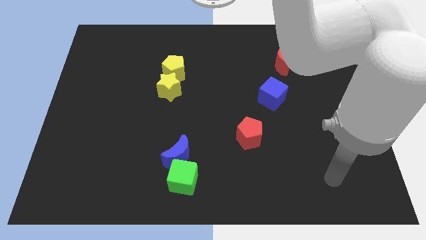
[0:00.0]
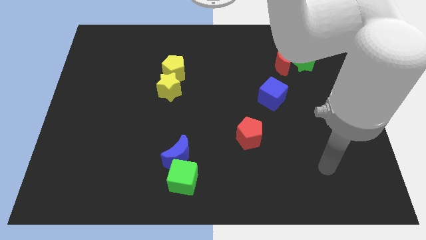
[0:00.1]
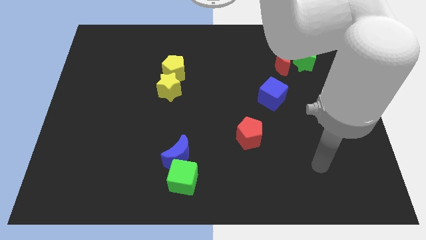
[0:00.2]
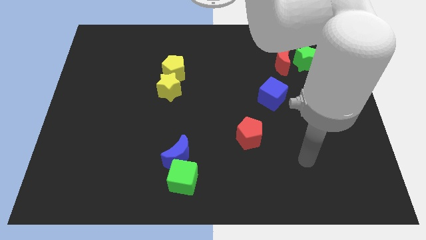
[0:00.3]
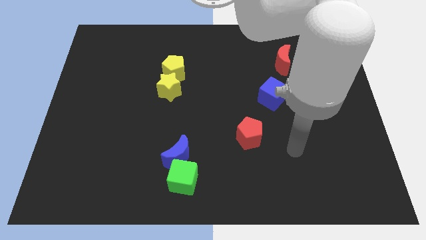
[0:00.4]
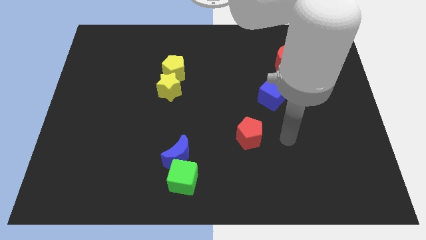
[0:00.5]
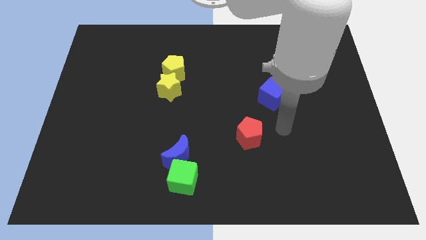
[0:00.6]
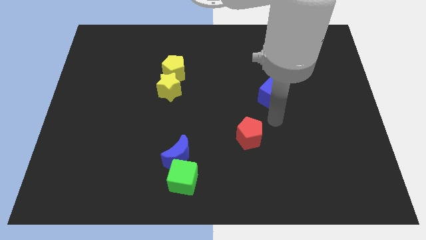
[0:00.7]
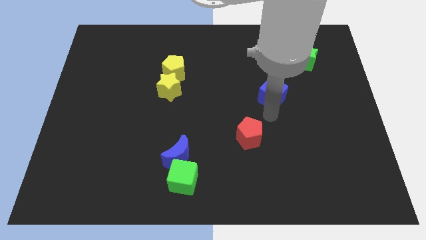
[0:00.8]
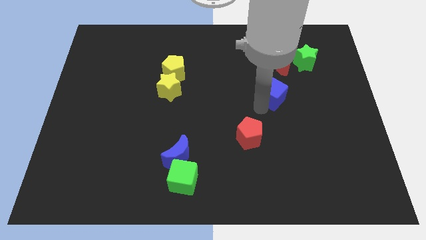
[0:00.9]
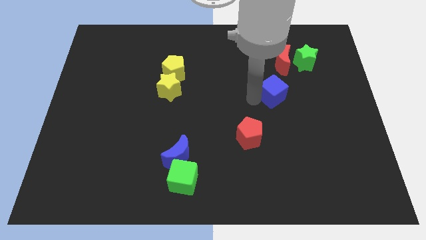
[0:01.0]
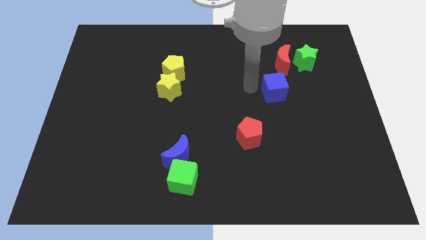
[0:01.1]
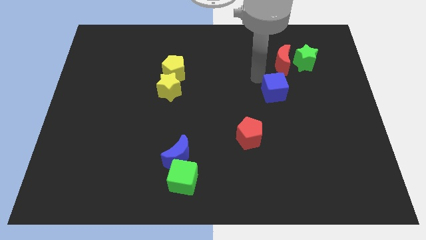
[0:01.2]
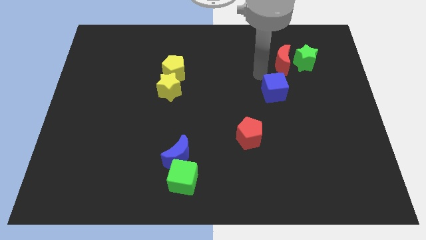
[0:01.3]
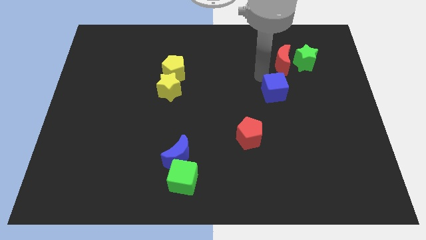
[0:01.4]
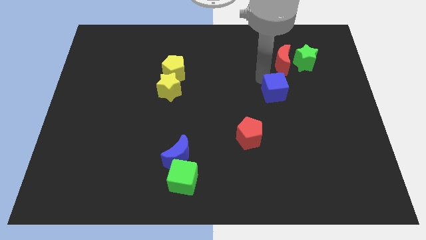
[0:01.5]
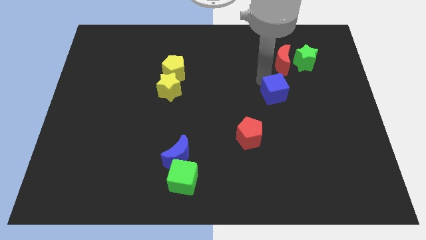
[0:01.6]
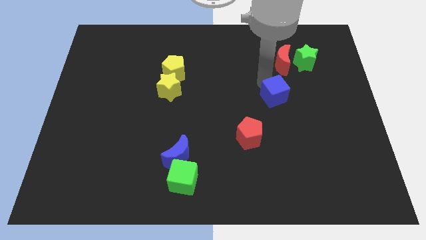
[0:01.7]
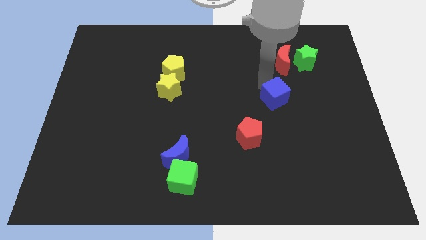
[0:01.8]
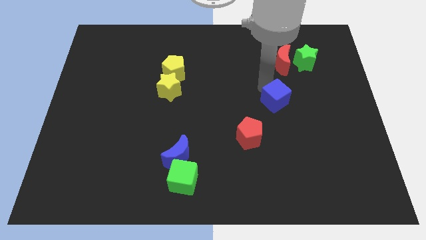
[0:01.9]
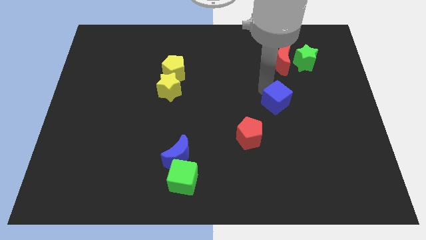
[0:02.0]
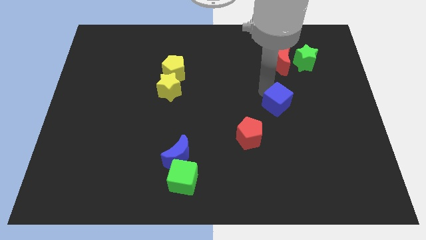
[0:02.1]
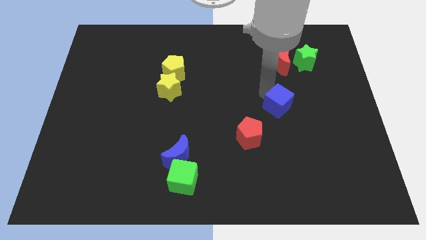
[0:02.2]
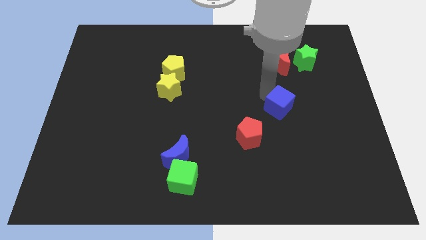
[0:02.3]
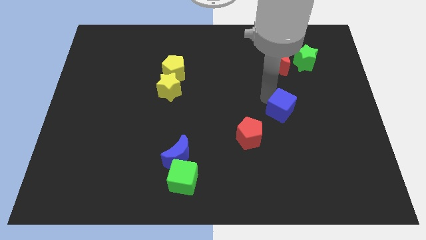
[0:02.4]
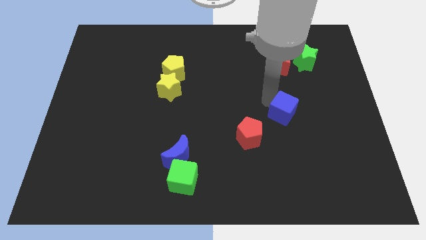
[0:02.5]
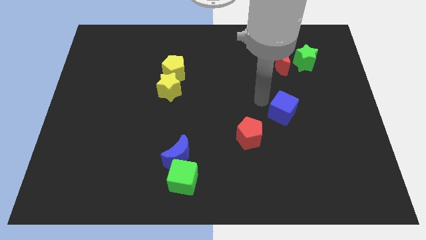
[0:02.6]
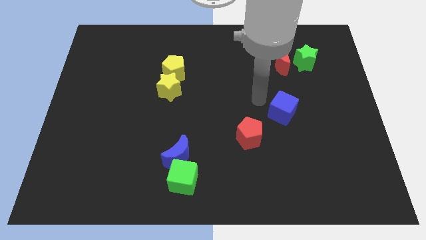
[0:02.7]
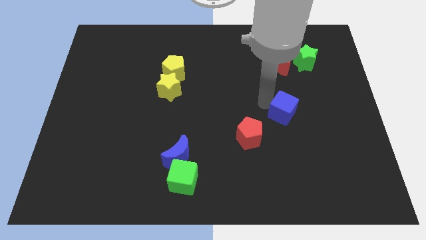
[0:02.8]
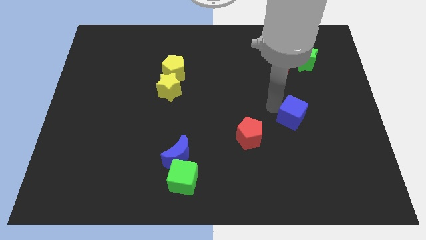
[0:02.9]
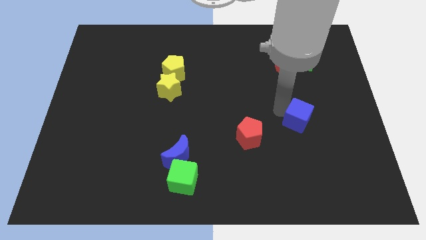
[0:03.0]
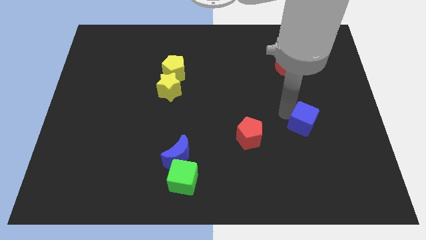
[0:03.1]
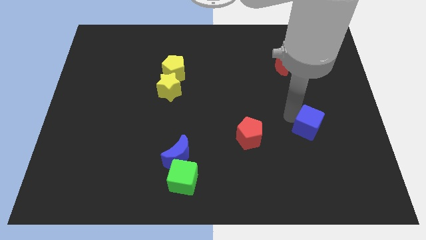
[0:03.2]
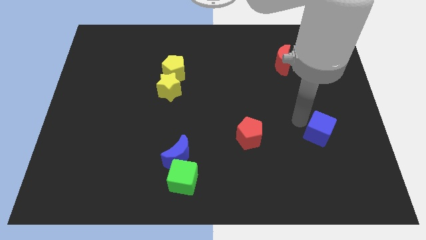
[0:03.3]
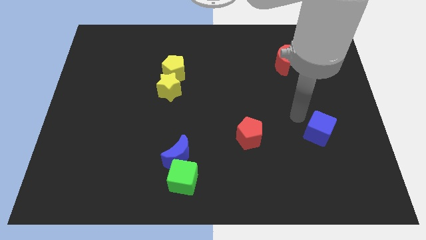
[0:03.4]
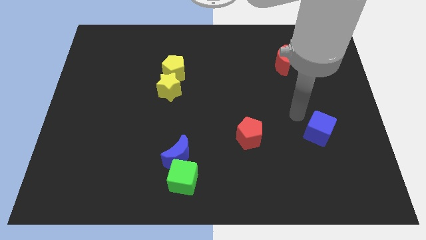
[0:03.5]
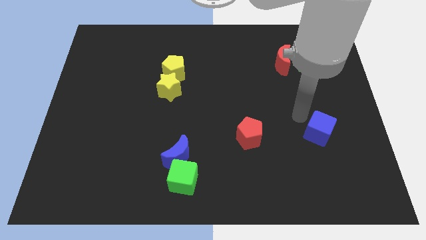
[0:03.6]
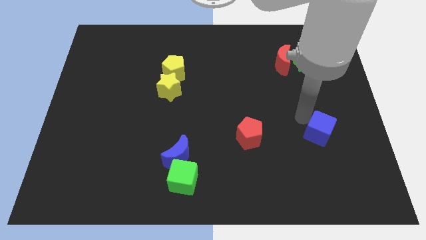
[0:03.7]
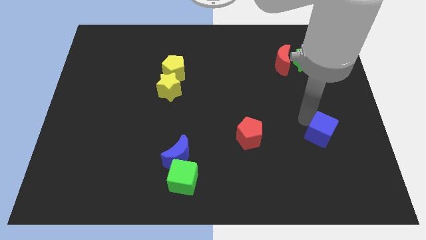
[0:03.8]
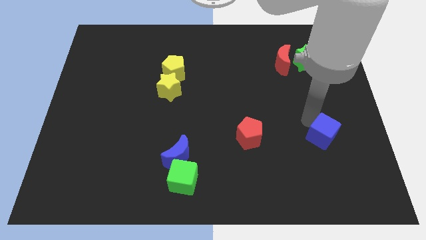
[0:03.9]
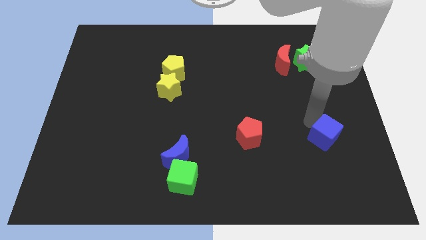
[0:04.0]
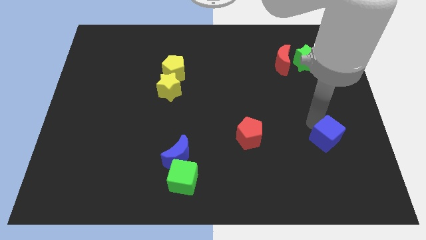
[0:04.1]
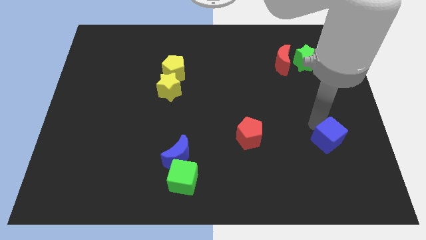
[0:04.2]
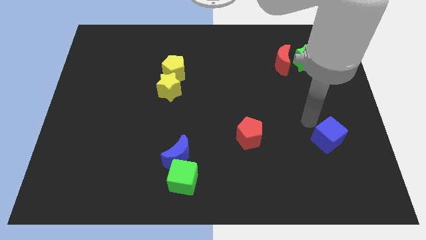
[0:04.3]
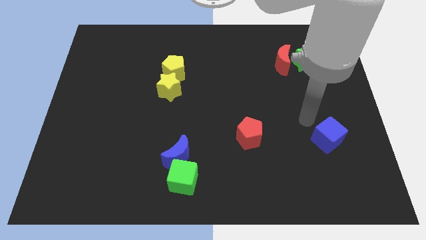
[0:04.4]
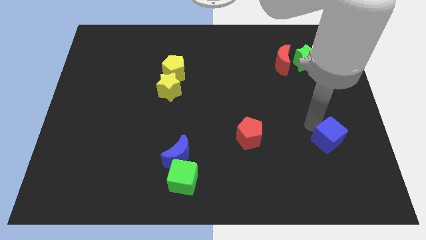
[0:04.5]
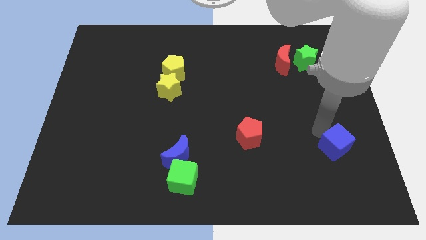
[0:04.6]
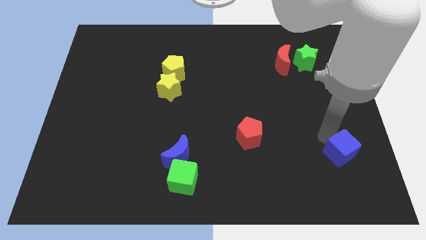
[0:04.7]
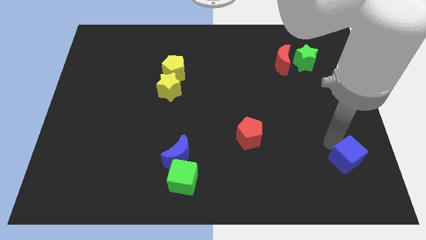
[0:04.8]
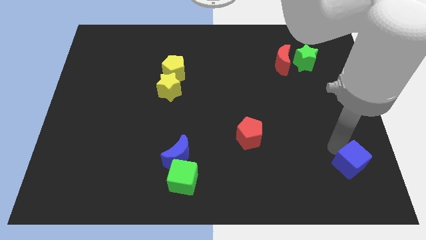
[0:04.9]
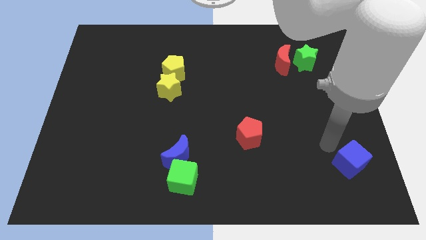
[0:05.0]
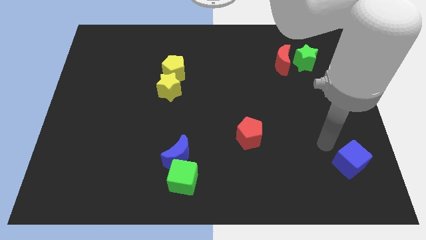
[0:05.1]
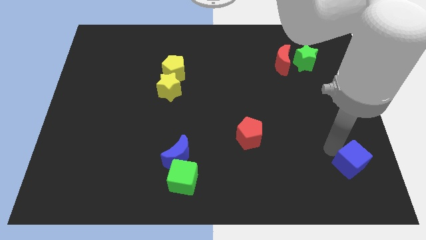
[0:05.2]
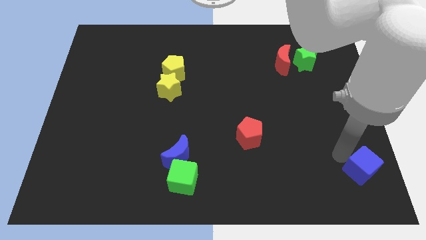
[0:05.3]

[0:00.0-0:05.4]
put the blue cube to the bottom right corner

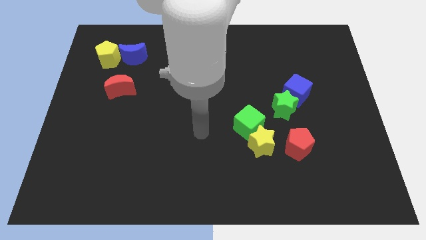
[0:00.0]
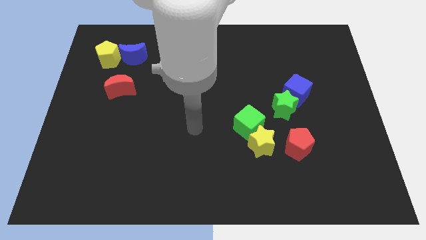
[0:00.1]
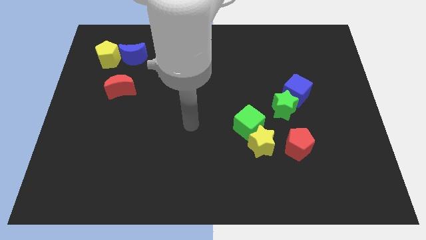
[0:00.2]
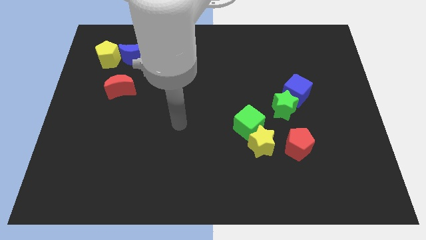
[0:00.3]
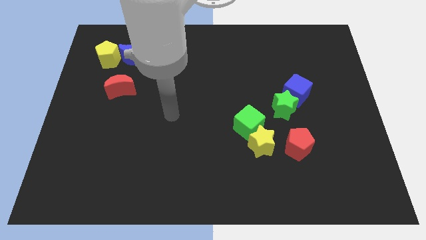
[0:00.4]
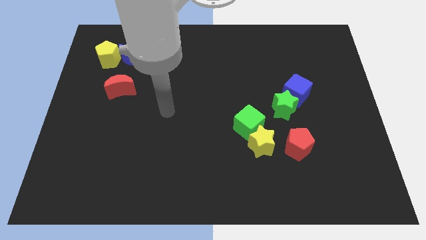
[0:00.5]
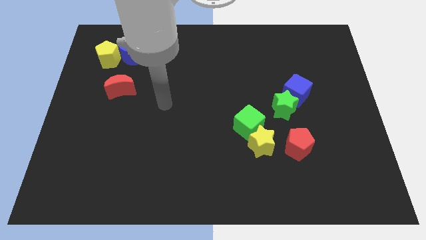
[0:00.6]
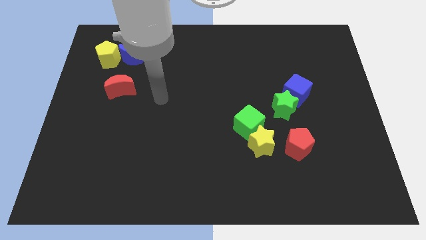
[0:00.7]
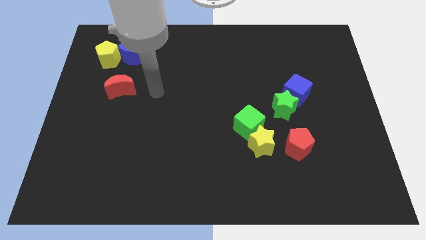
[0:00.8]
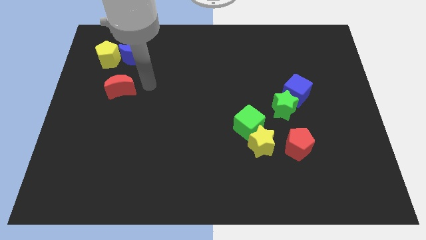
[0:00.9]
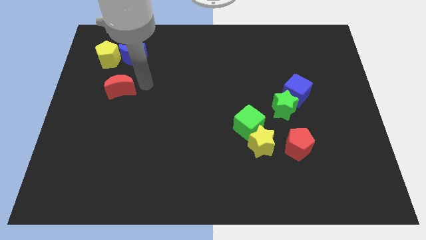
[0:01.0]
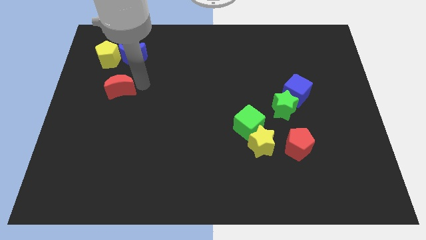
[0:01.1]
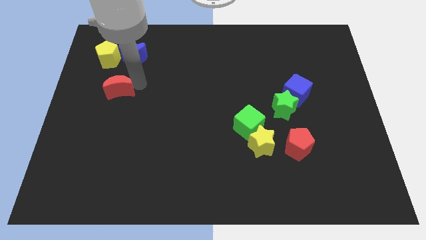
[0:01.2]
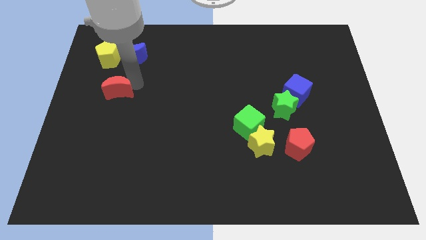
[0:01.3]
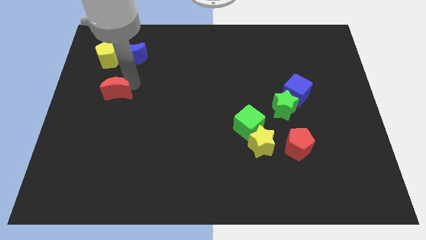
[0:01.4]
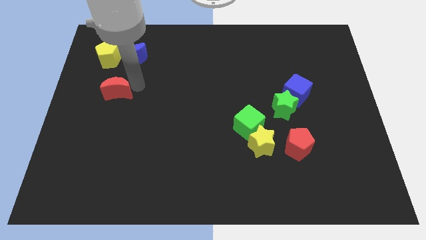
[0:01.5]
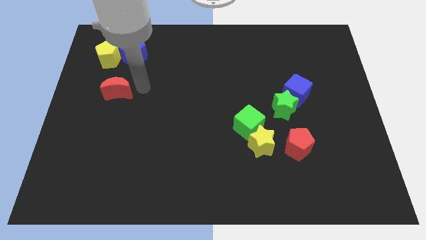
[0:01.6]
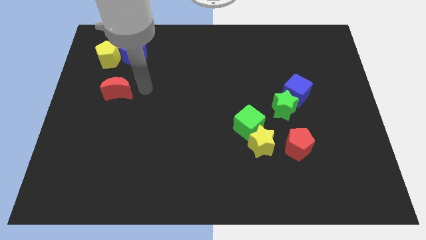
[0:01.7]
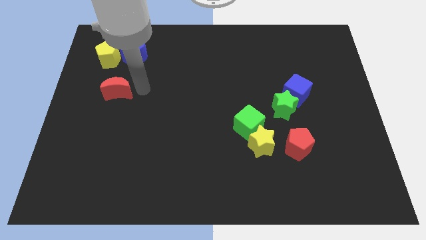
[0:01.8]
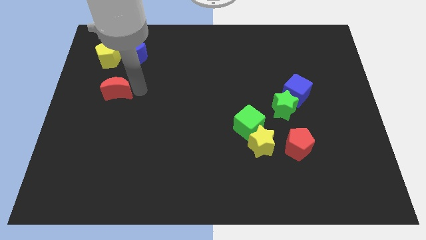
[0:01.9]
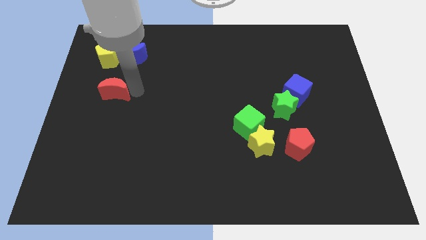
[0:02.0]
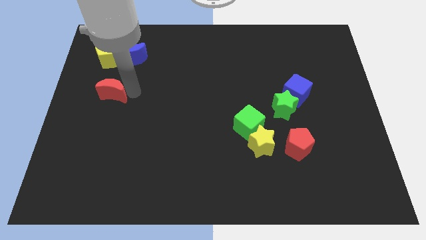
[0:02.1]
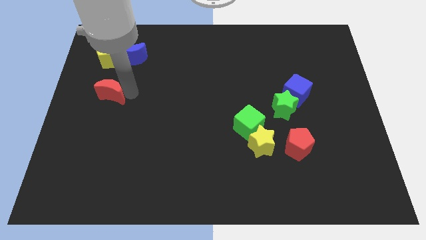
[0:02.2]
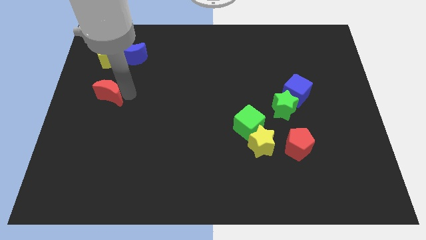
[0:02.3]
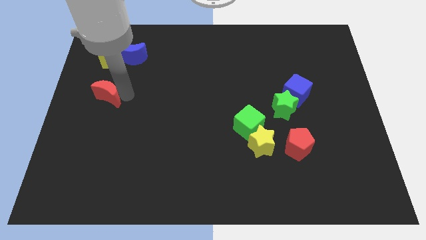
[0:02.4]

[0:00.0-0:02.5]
slide the red moon to the left side of the board
